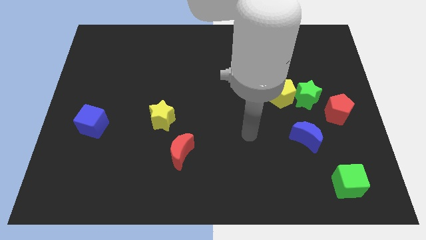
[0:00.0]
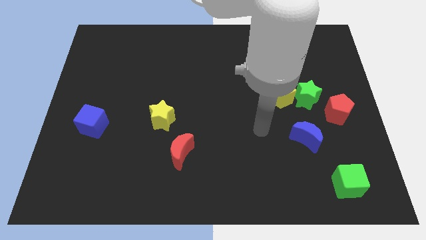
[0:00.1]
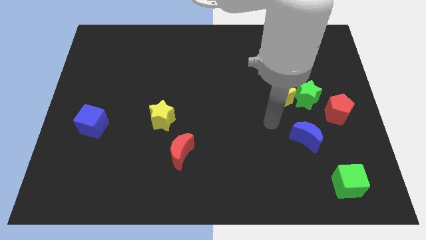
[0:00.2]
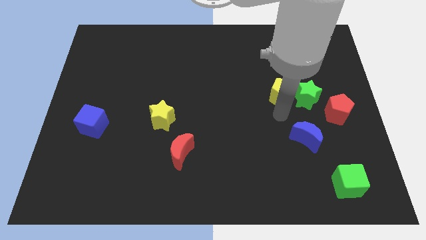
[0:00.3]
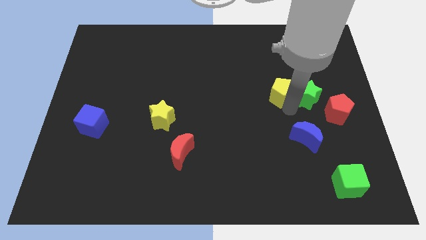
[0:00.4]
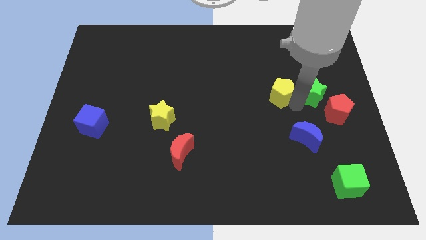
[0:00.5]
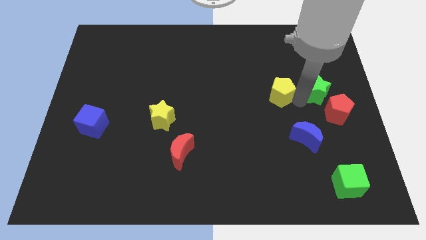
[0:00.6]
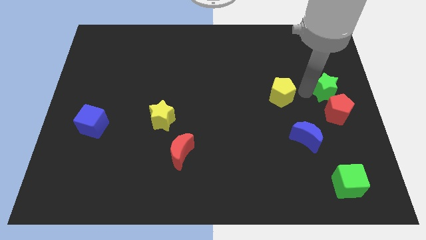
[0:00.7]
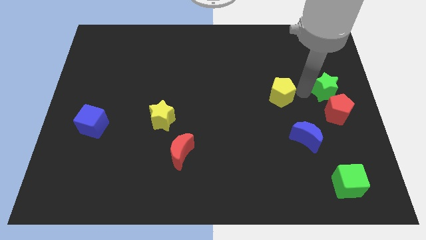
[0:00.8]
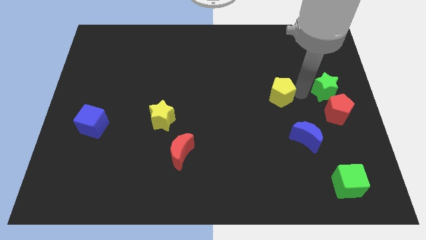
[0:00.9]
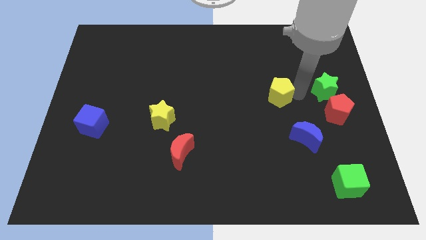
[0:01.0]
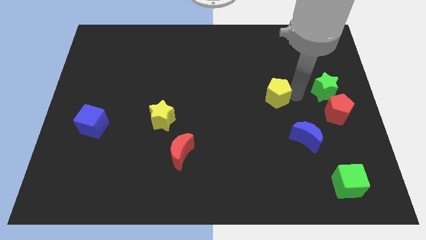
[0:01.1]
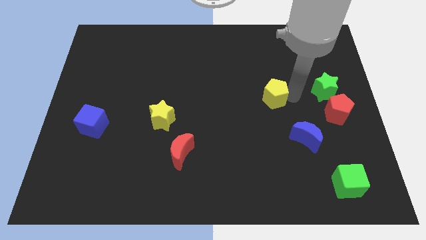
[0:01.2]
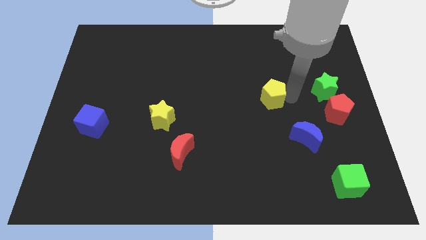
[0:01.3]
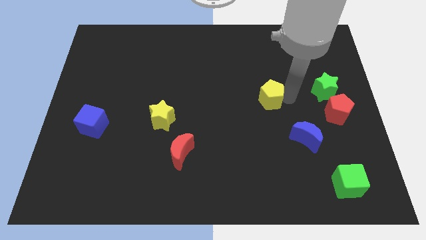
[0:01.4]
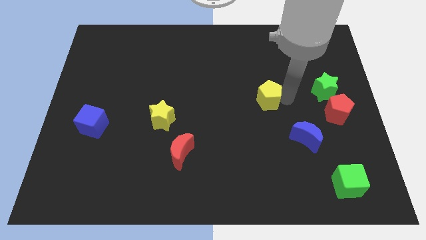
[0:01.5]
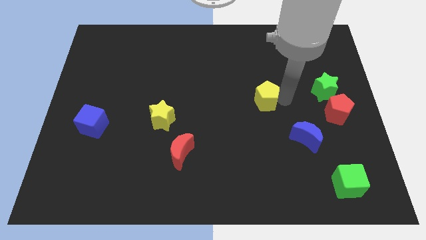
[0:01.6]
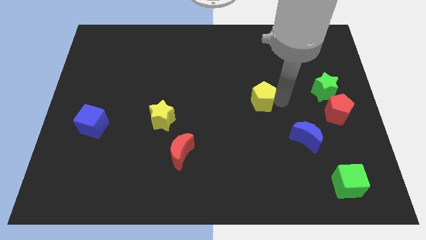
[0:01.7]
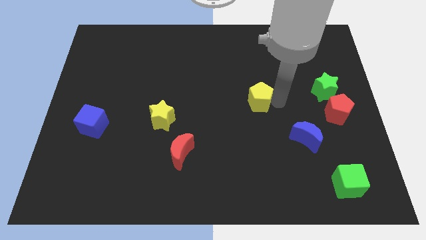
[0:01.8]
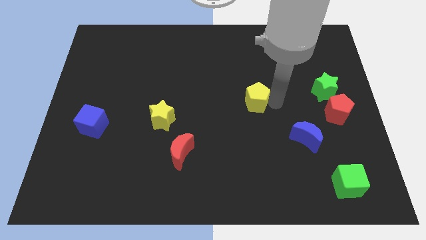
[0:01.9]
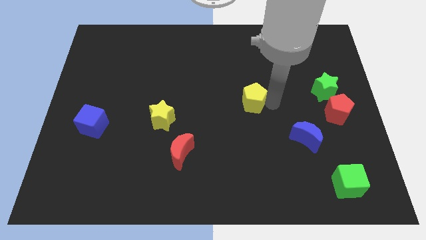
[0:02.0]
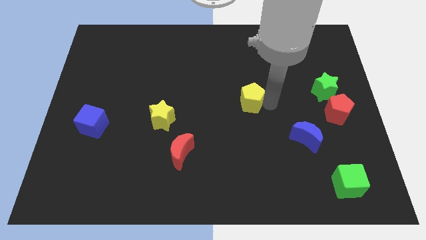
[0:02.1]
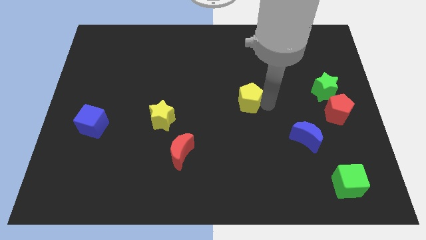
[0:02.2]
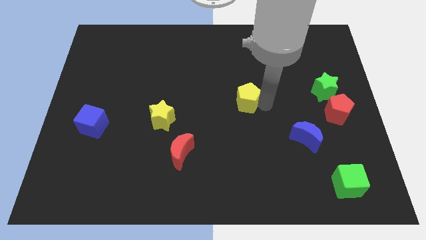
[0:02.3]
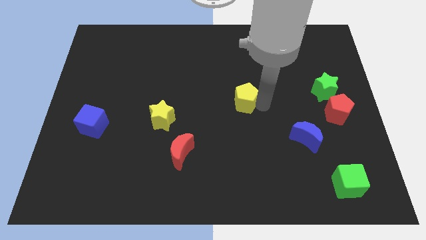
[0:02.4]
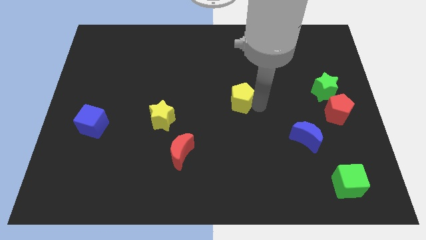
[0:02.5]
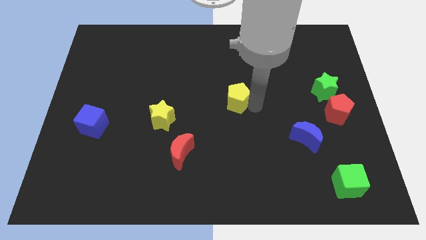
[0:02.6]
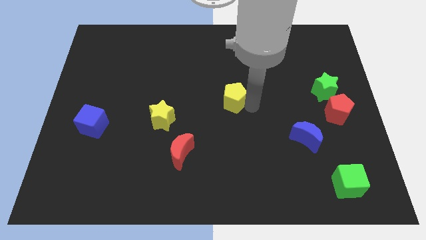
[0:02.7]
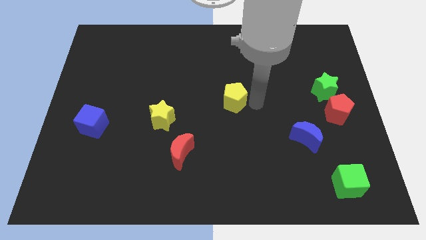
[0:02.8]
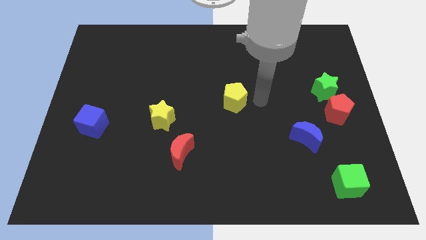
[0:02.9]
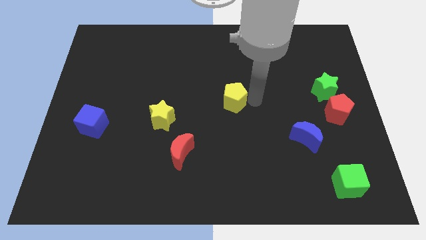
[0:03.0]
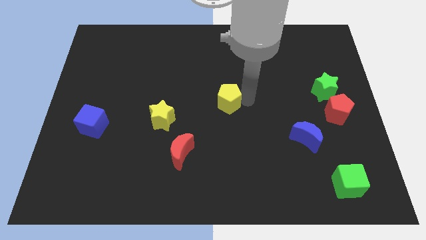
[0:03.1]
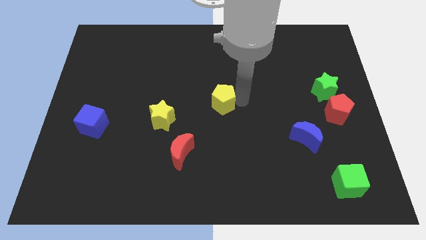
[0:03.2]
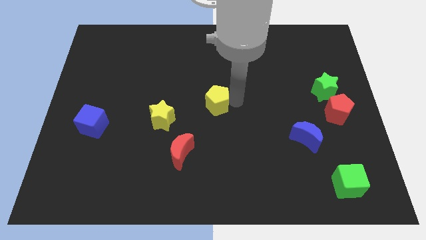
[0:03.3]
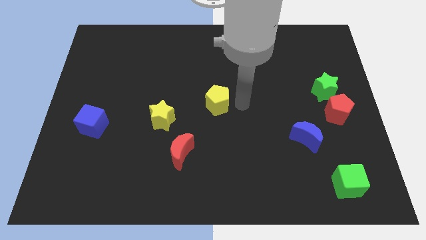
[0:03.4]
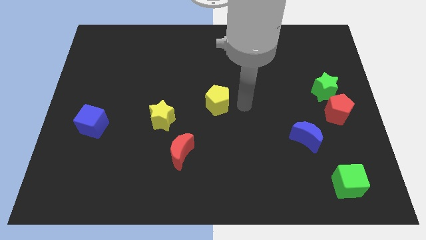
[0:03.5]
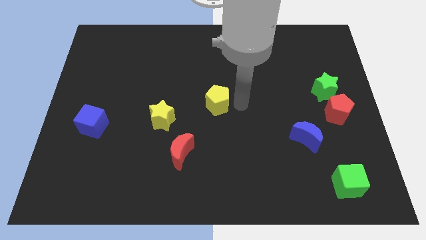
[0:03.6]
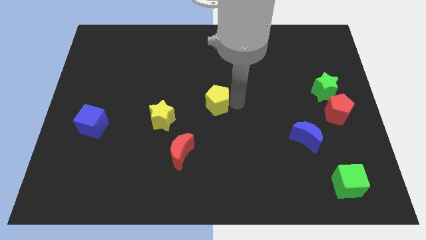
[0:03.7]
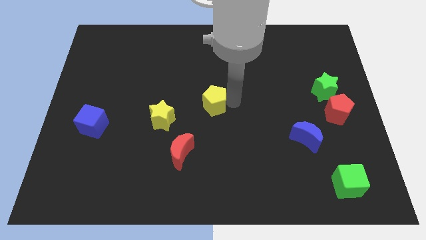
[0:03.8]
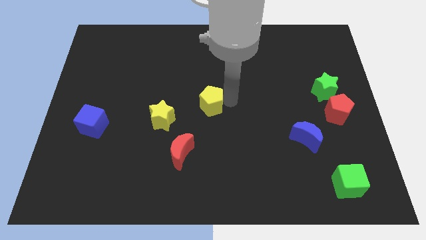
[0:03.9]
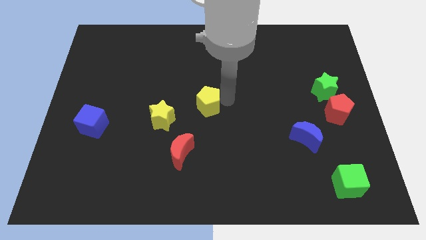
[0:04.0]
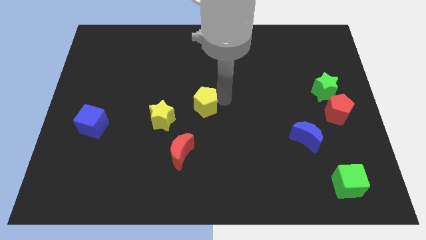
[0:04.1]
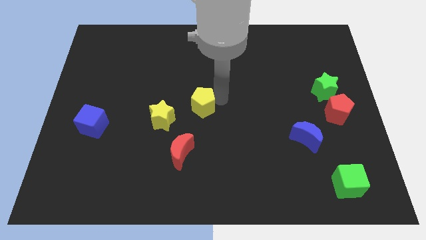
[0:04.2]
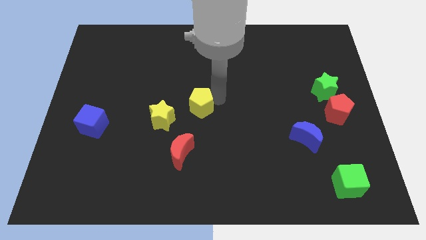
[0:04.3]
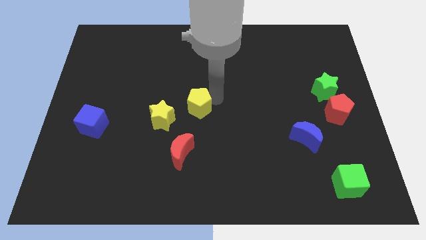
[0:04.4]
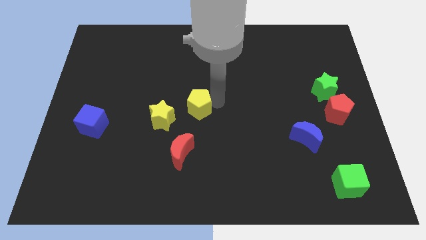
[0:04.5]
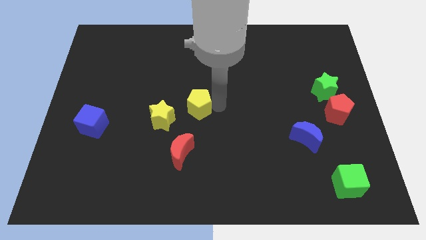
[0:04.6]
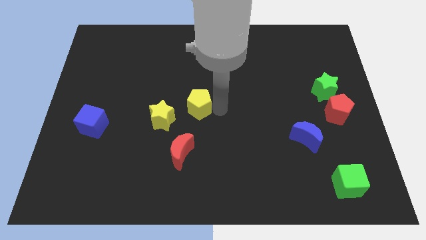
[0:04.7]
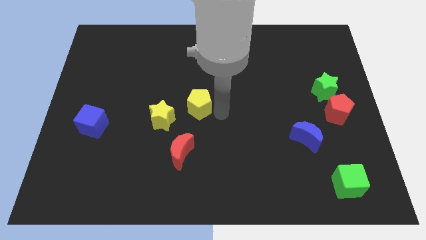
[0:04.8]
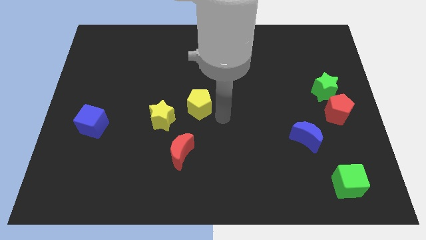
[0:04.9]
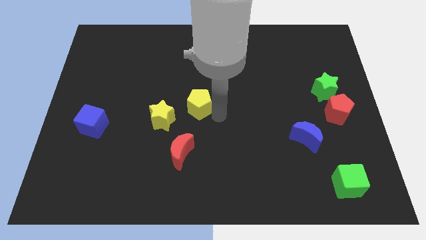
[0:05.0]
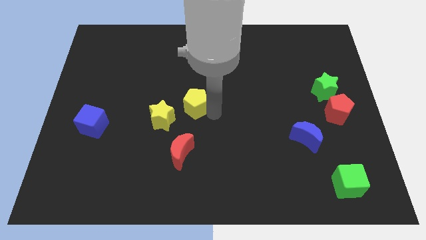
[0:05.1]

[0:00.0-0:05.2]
push the yellow pentagon to the left

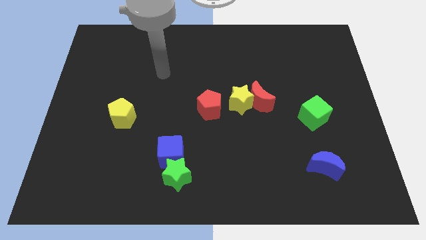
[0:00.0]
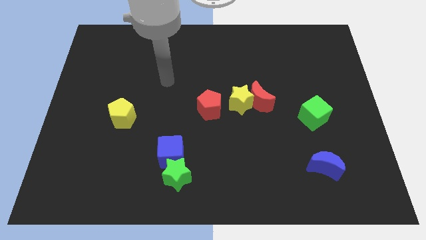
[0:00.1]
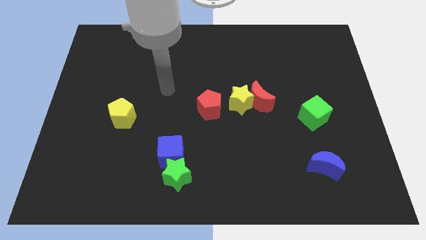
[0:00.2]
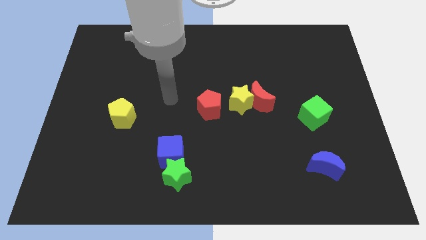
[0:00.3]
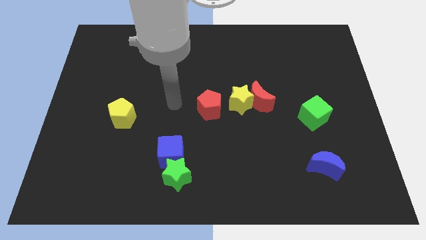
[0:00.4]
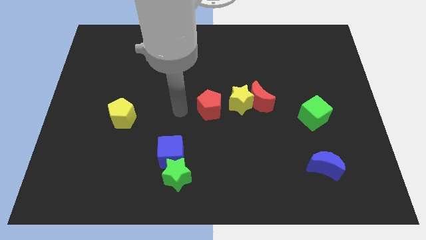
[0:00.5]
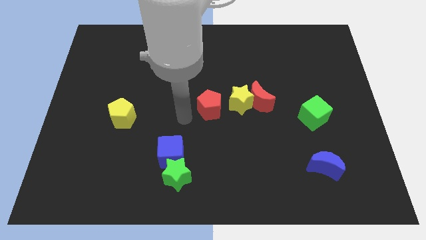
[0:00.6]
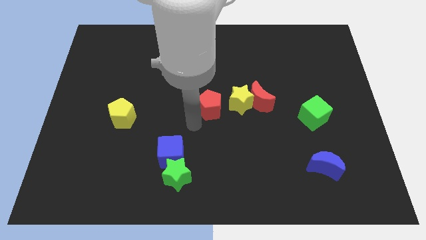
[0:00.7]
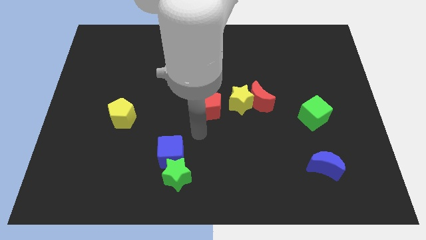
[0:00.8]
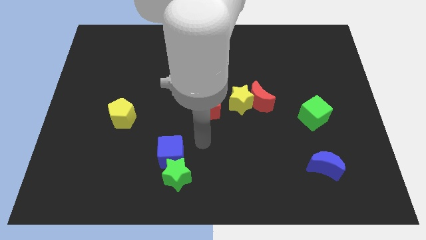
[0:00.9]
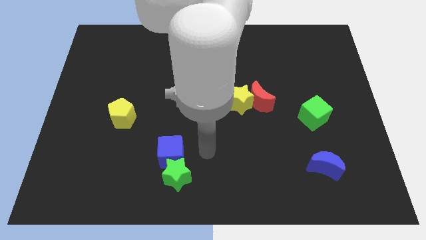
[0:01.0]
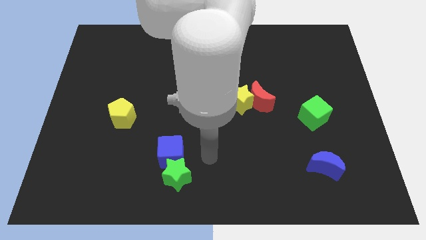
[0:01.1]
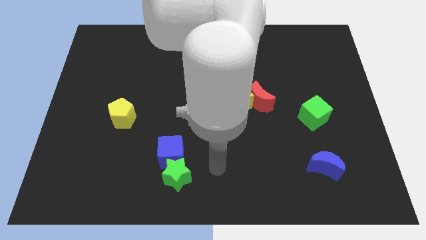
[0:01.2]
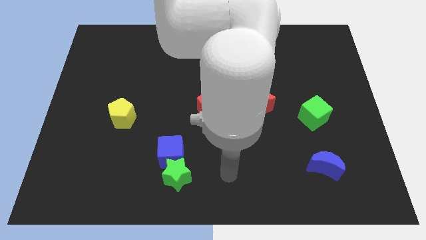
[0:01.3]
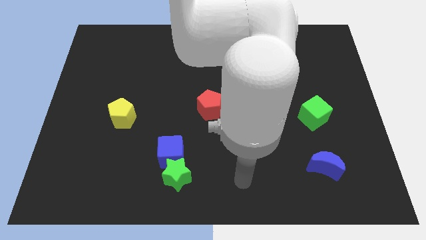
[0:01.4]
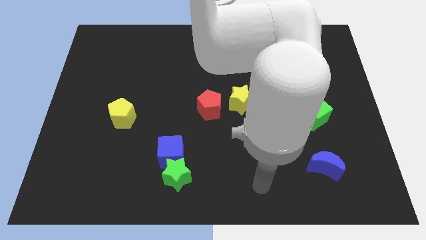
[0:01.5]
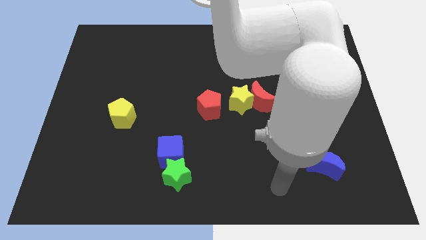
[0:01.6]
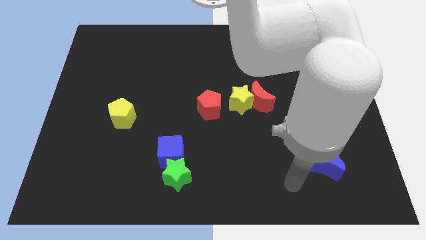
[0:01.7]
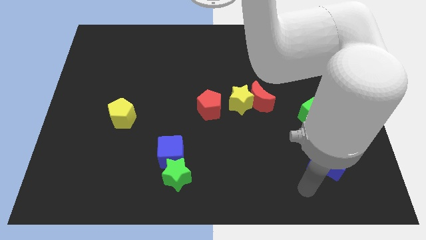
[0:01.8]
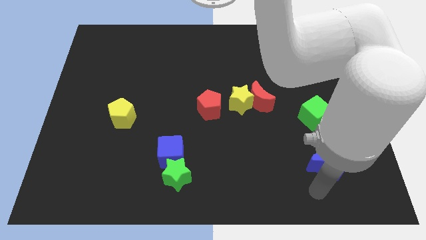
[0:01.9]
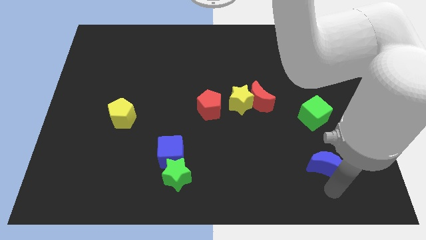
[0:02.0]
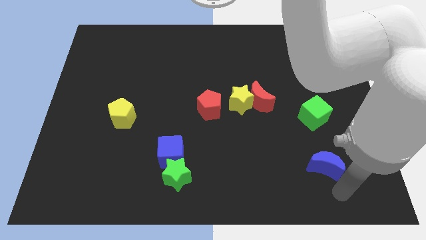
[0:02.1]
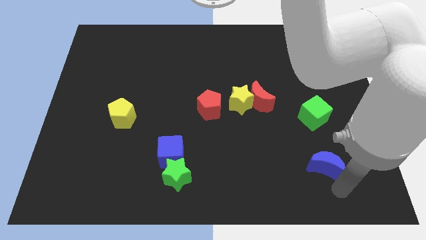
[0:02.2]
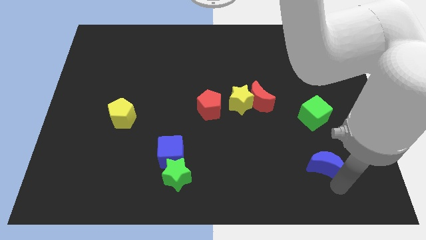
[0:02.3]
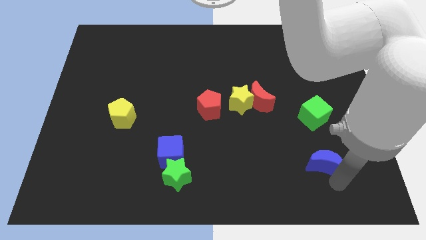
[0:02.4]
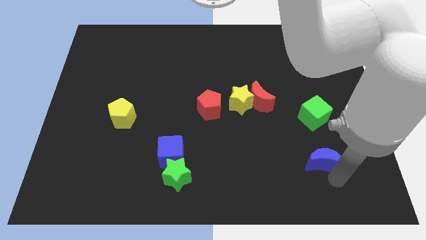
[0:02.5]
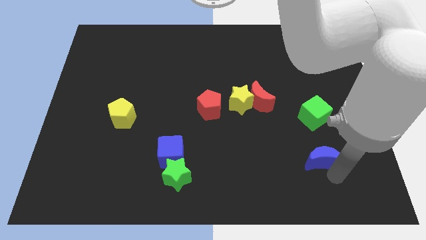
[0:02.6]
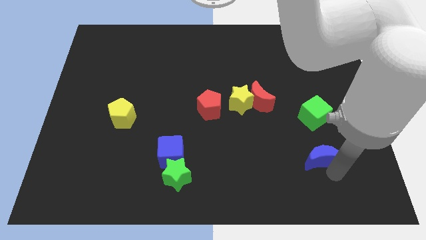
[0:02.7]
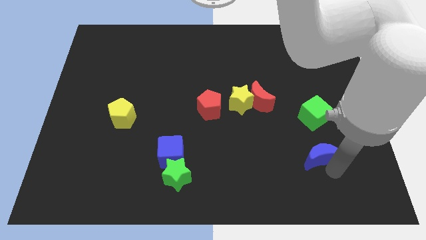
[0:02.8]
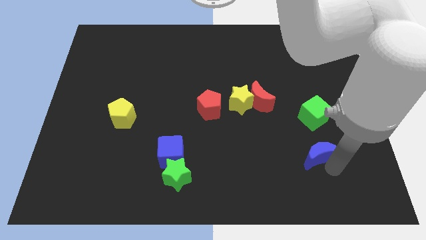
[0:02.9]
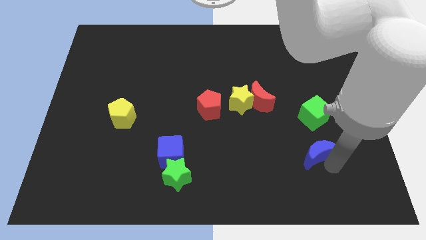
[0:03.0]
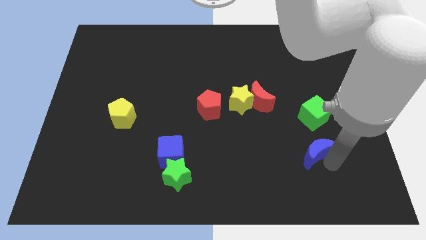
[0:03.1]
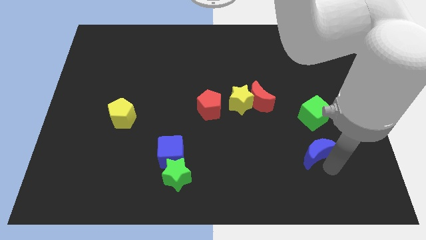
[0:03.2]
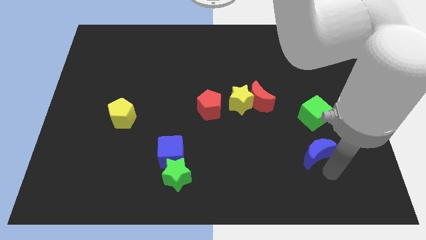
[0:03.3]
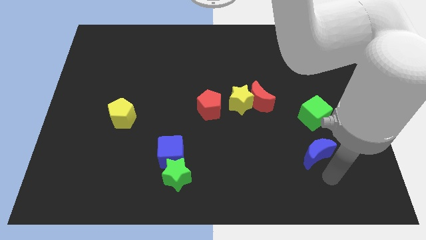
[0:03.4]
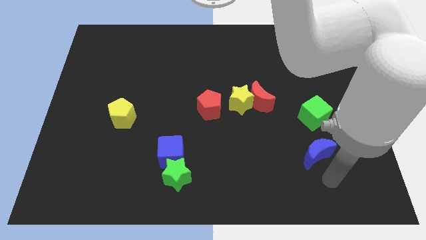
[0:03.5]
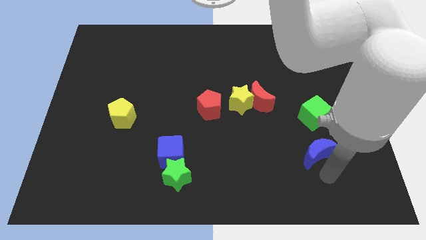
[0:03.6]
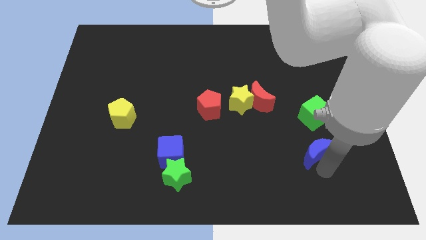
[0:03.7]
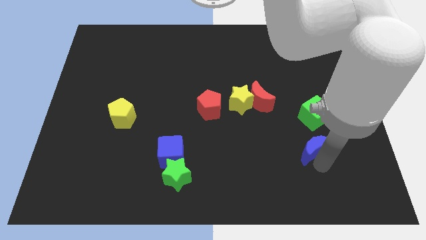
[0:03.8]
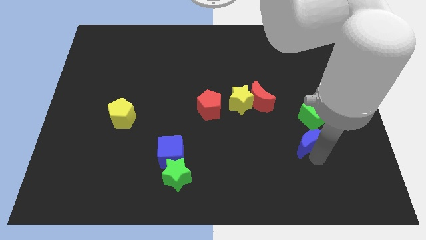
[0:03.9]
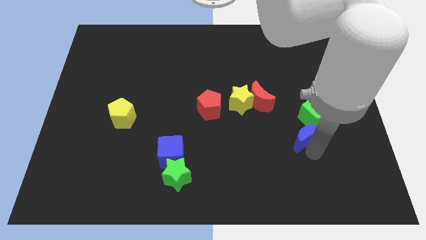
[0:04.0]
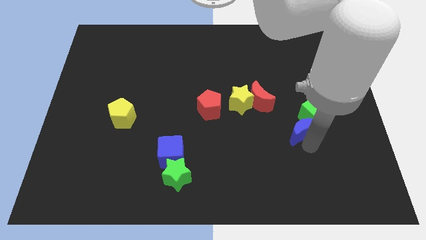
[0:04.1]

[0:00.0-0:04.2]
move the blue moon a little bit up
